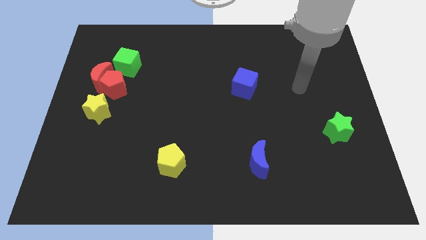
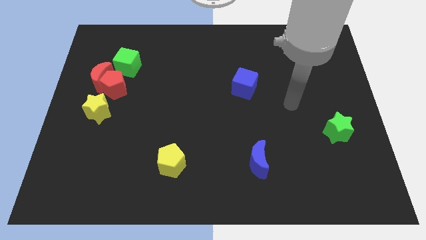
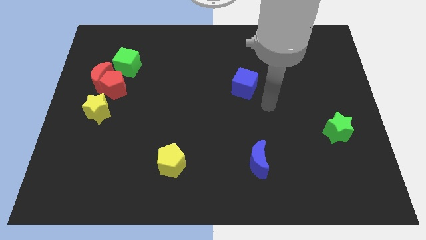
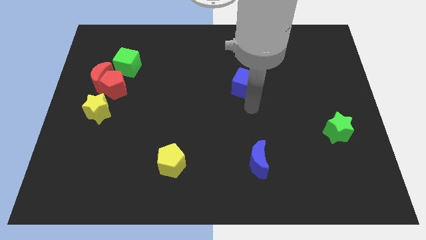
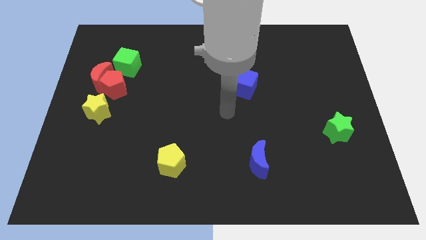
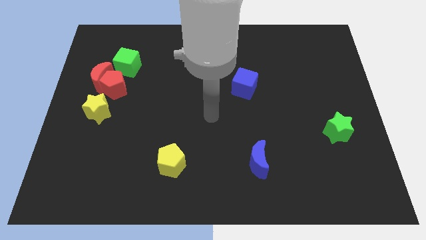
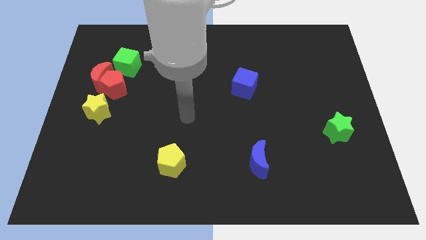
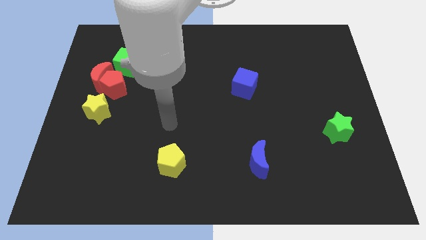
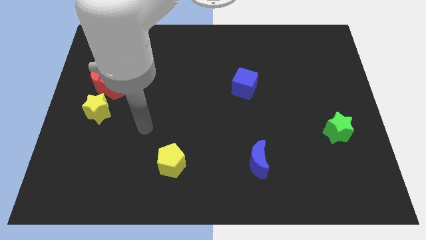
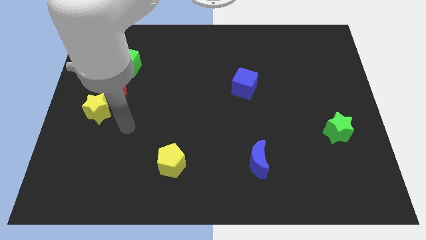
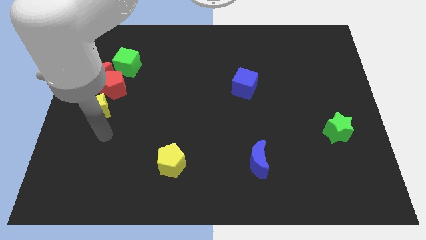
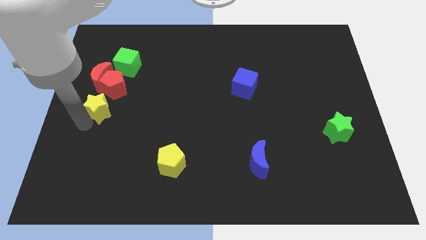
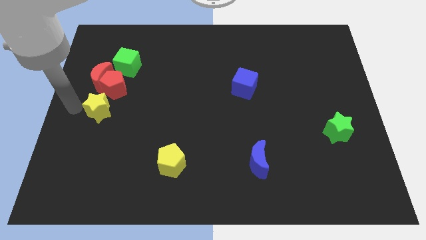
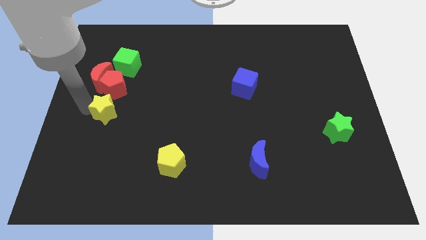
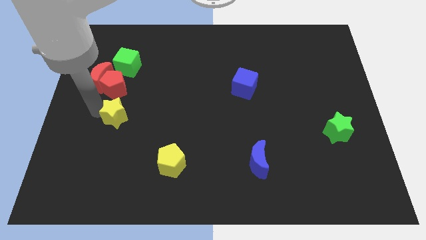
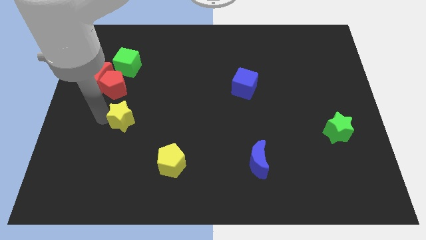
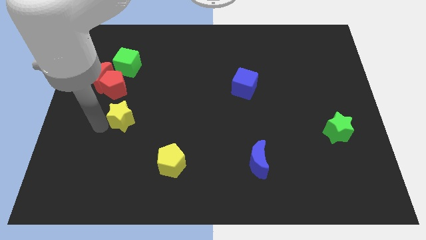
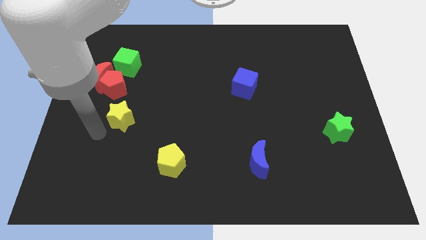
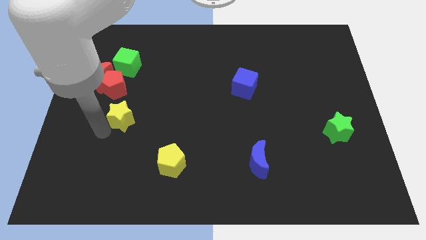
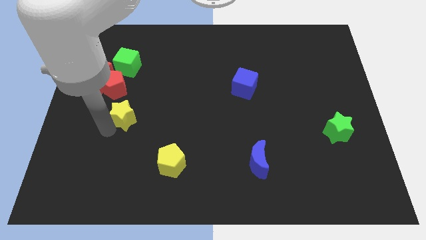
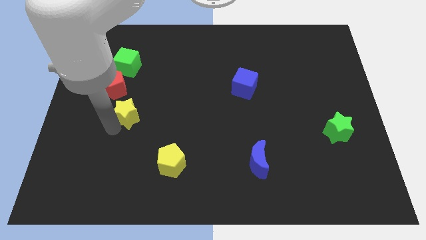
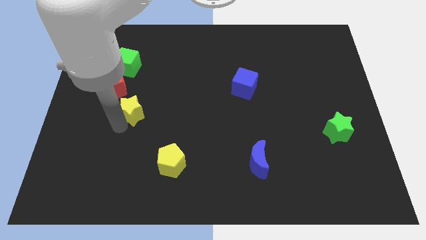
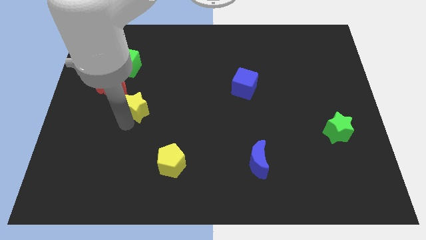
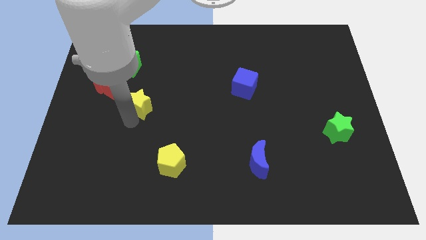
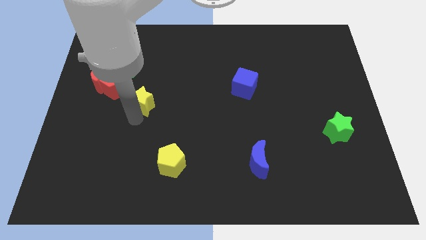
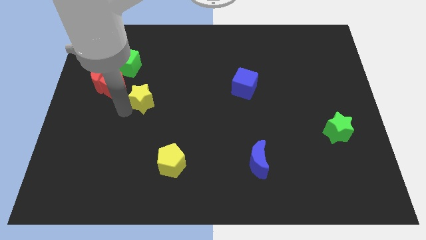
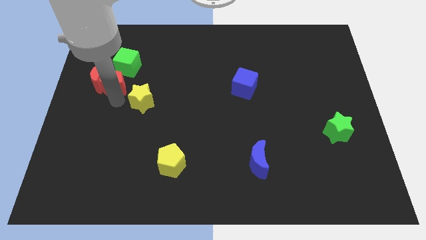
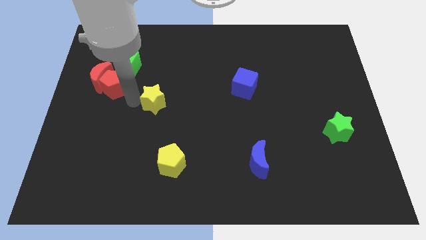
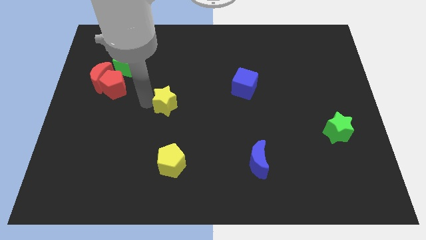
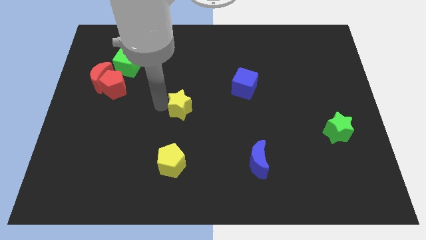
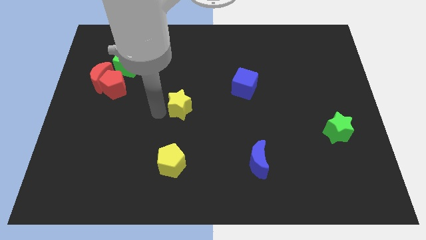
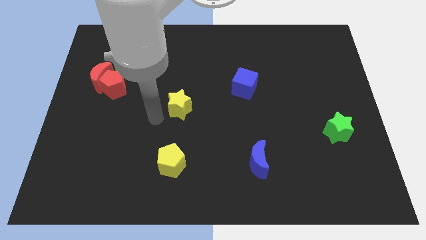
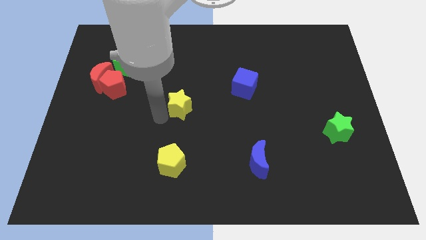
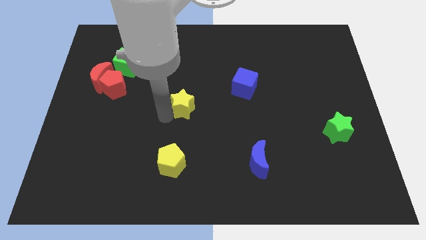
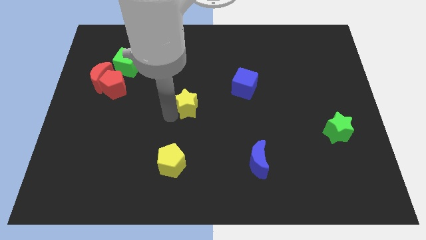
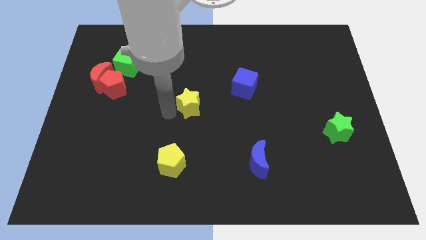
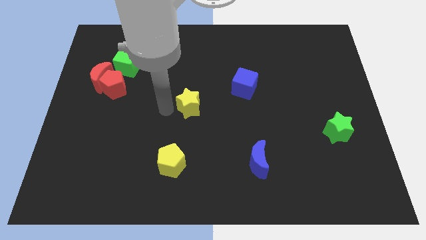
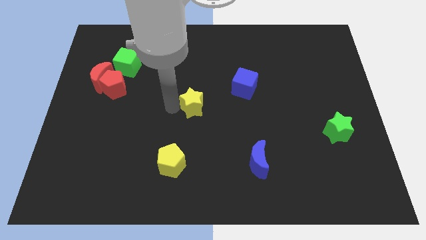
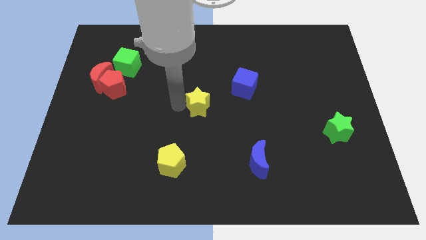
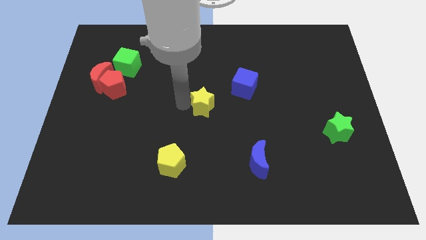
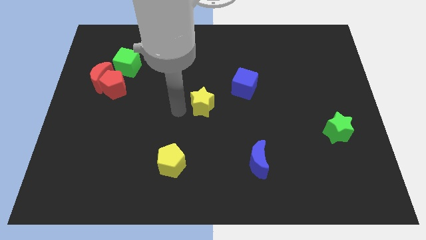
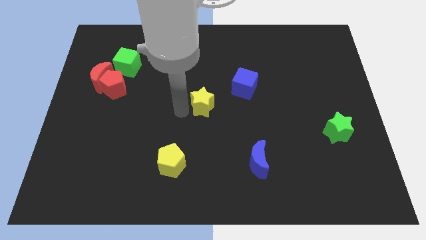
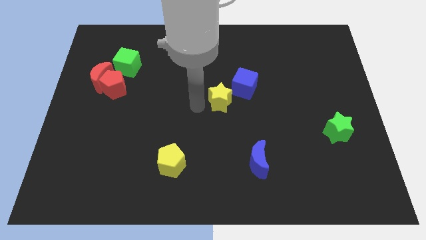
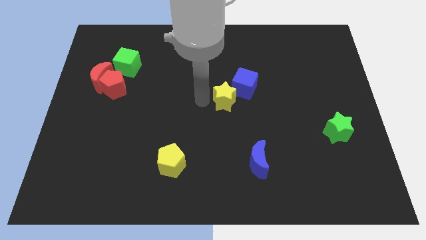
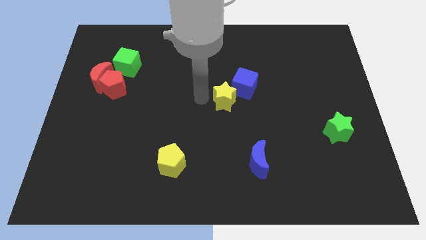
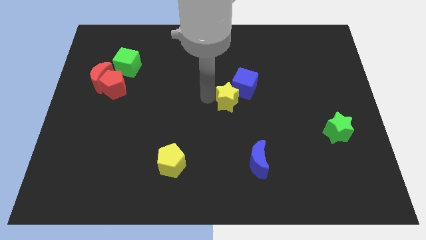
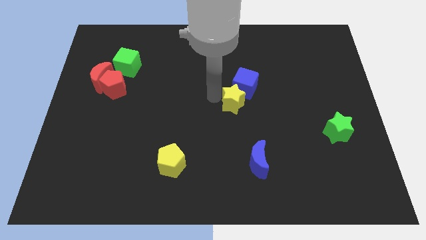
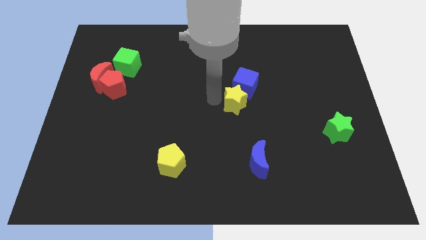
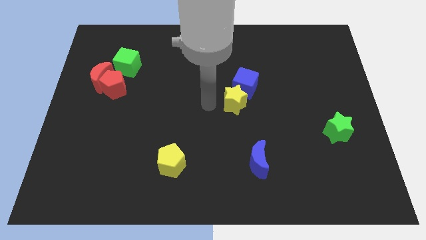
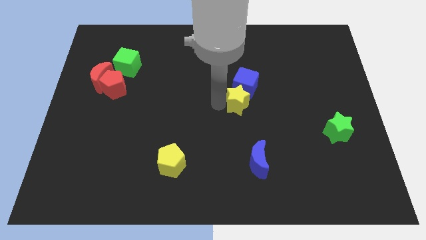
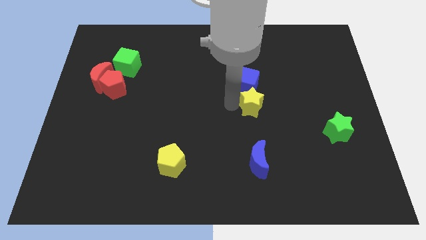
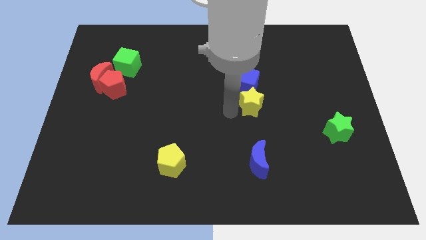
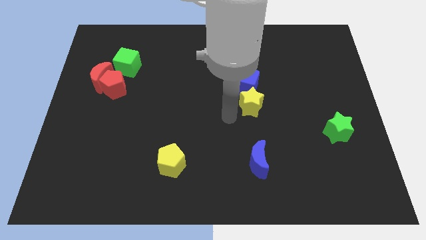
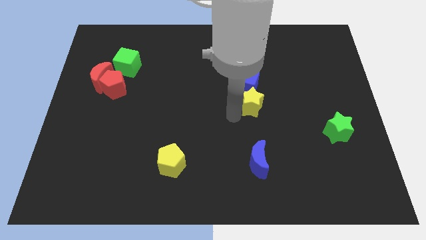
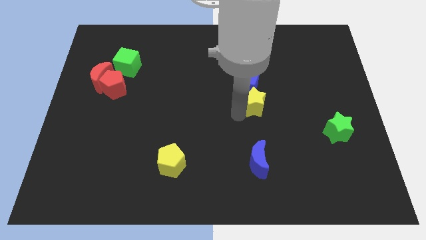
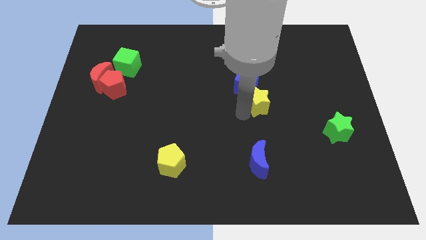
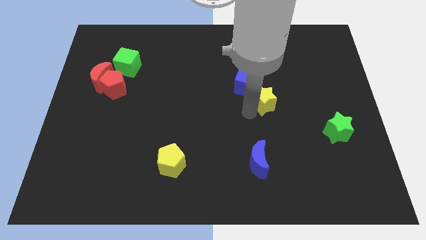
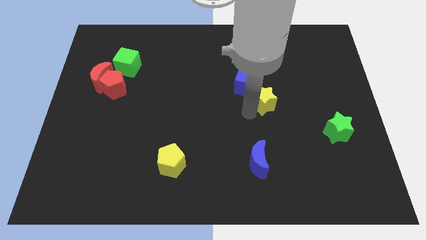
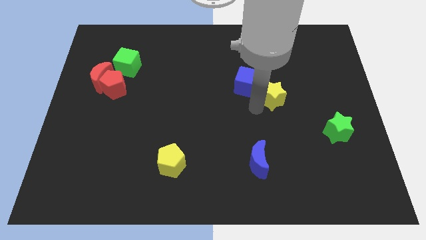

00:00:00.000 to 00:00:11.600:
put the yellow star right of the blue cube

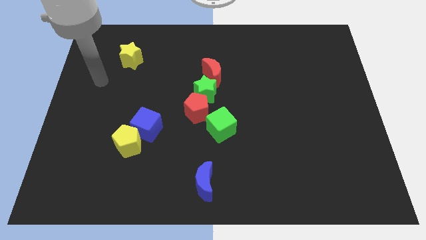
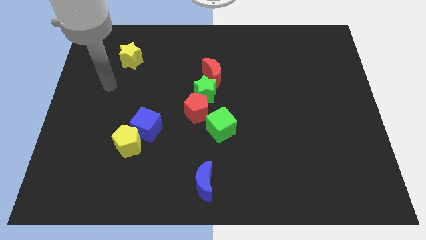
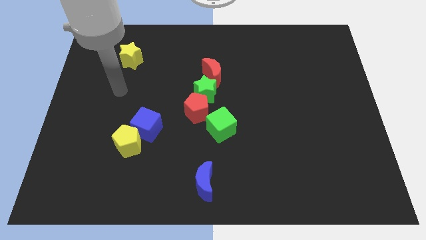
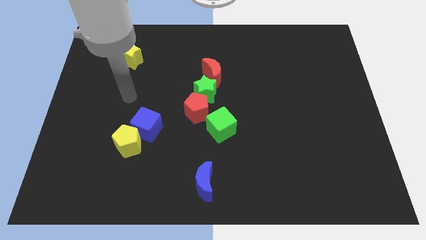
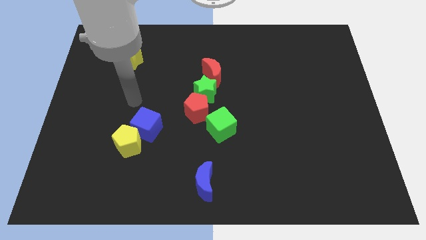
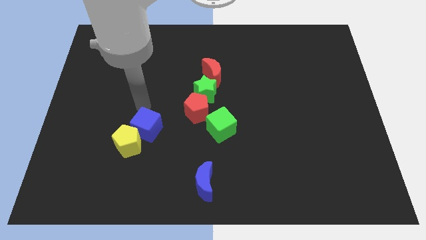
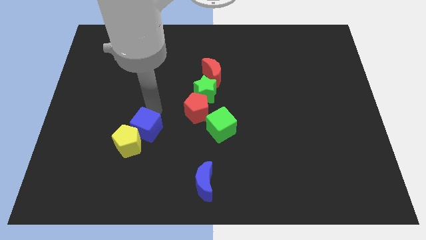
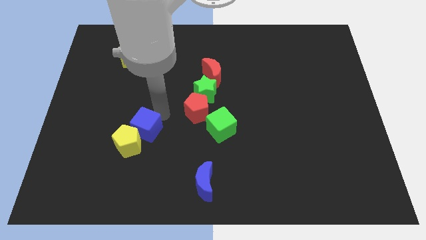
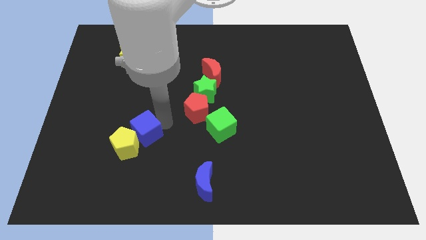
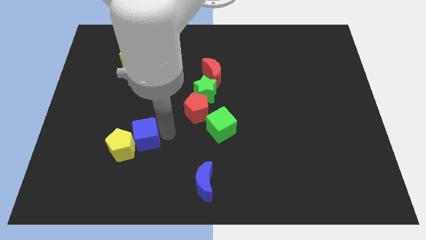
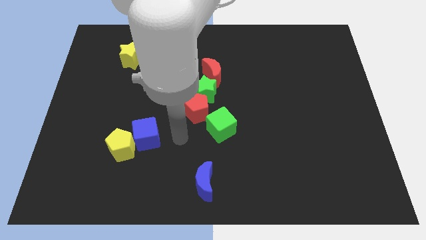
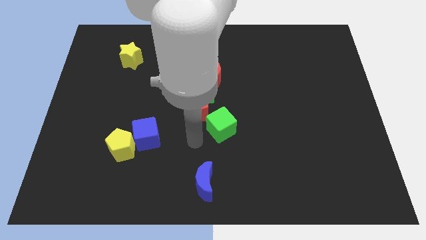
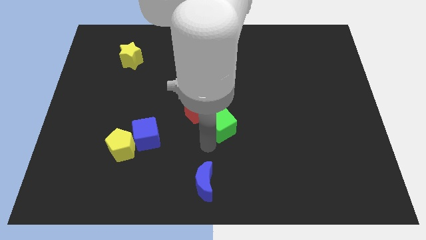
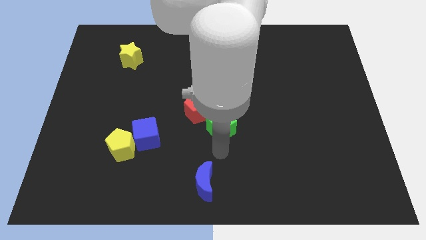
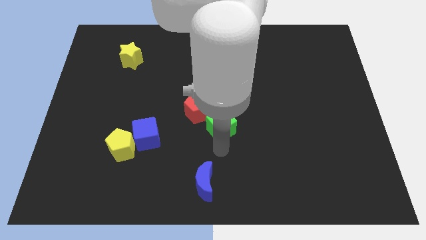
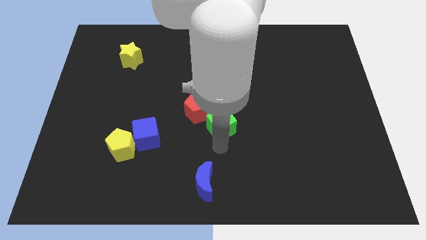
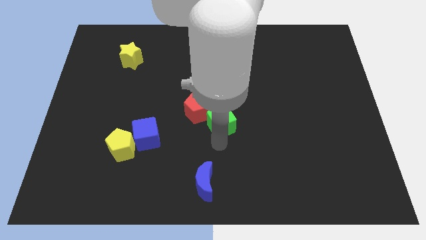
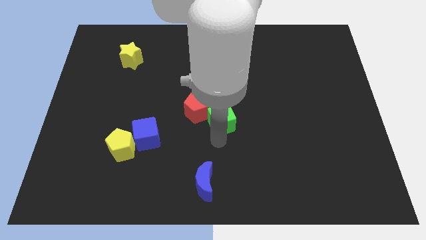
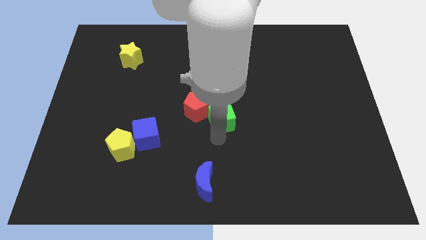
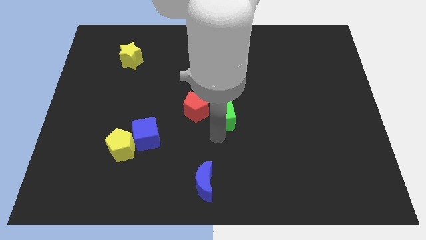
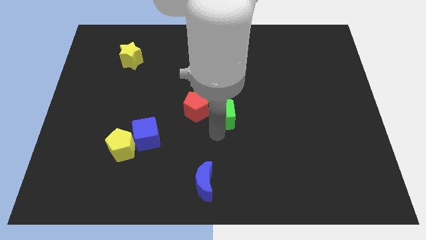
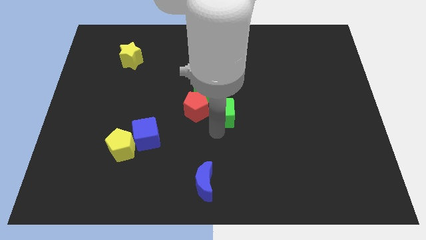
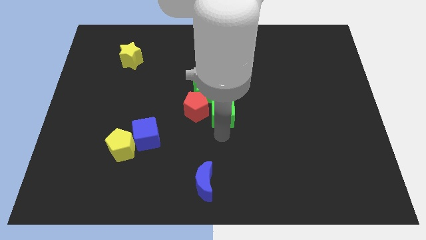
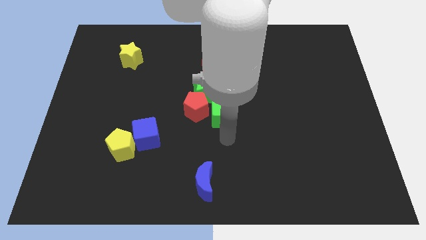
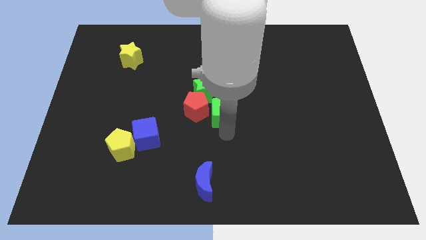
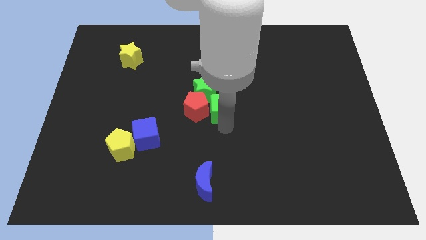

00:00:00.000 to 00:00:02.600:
slide the green cube to the top right side of the red pentagon
